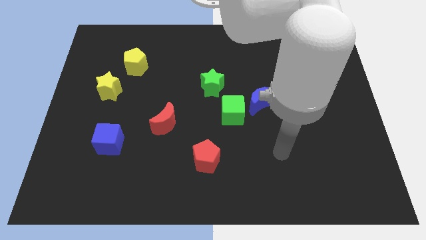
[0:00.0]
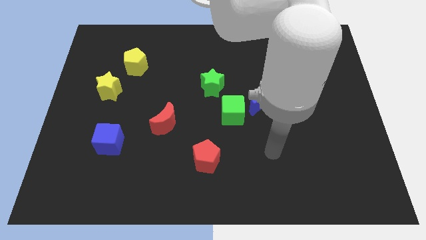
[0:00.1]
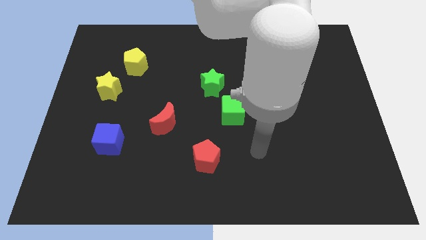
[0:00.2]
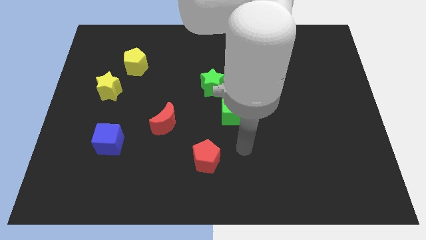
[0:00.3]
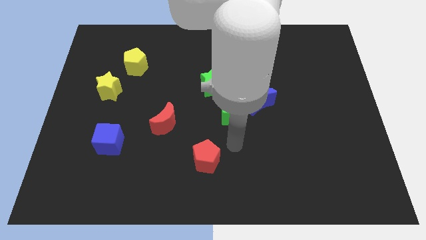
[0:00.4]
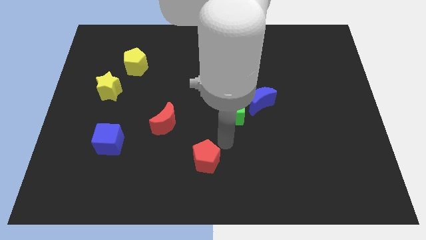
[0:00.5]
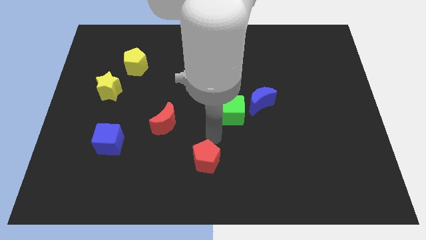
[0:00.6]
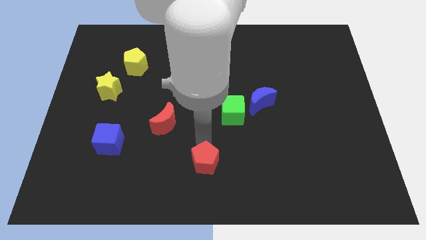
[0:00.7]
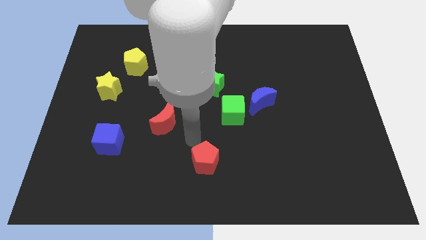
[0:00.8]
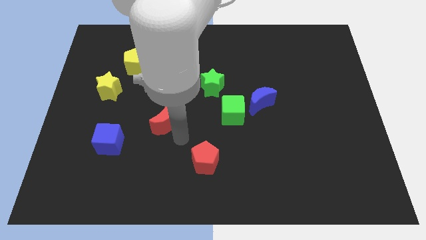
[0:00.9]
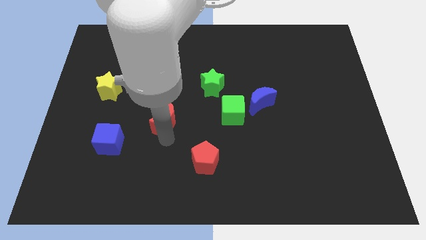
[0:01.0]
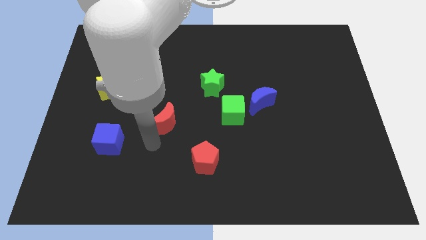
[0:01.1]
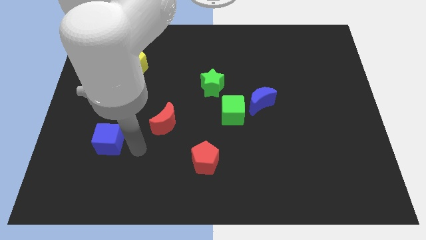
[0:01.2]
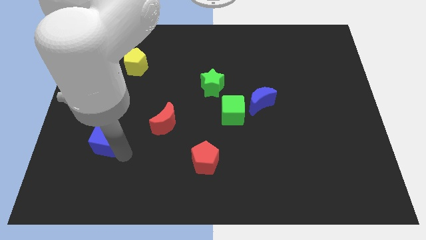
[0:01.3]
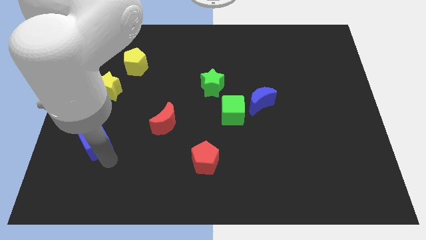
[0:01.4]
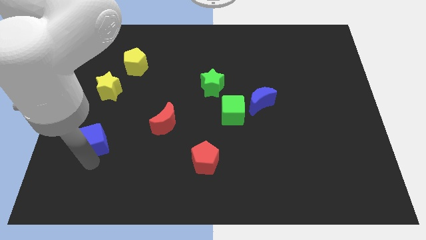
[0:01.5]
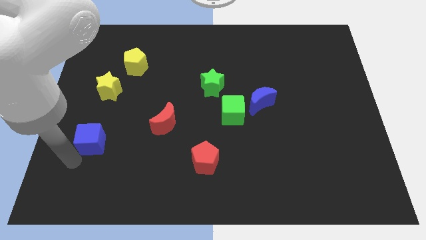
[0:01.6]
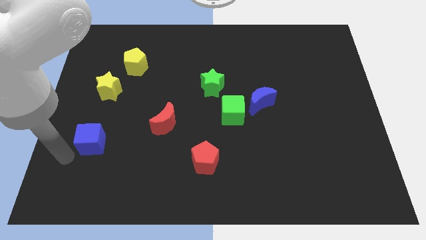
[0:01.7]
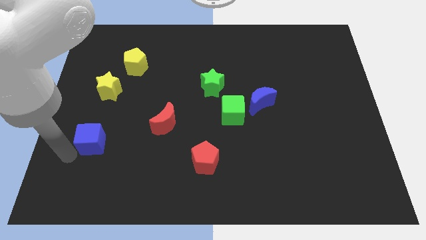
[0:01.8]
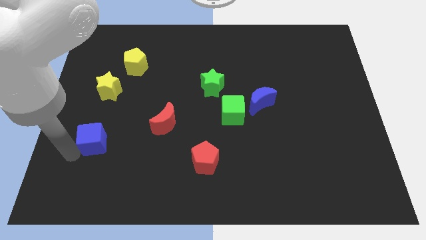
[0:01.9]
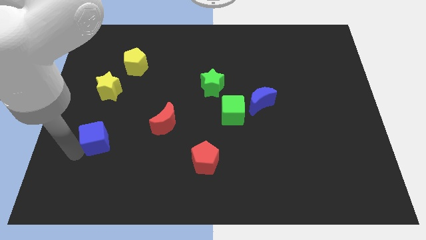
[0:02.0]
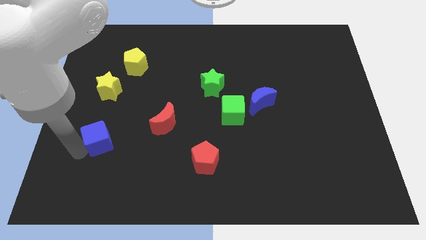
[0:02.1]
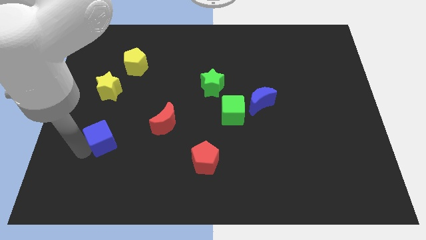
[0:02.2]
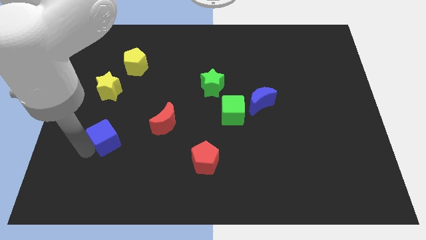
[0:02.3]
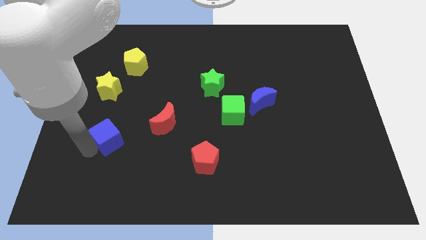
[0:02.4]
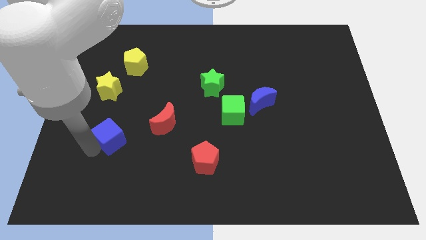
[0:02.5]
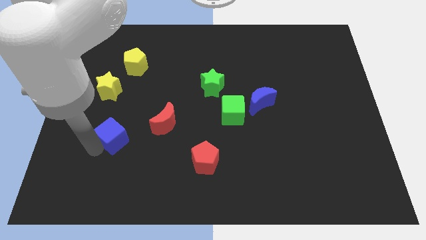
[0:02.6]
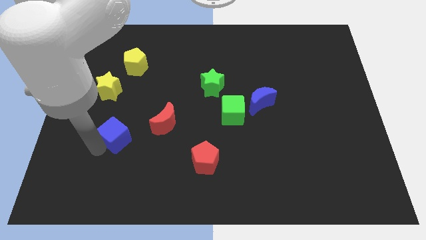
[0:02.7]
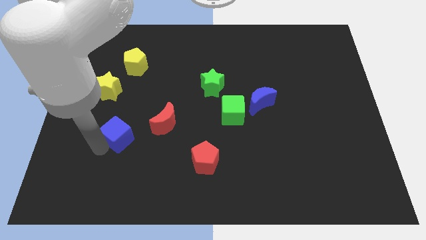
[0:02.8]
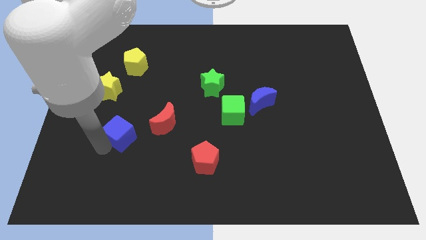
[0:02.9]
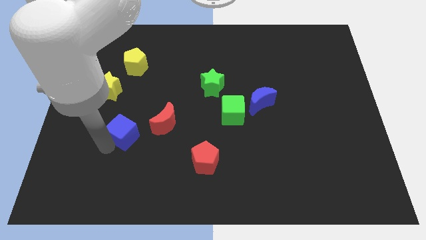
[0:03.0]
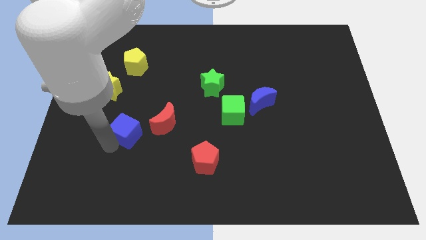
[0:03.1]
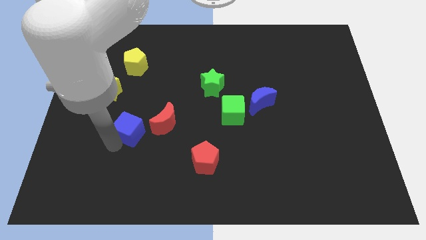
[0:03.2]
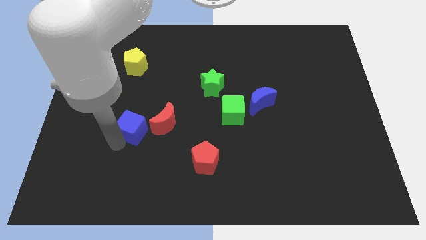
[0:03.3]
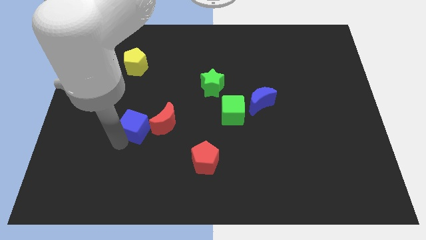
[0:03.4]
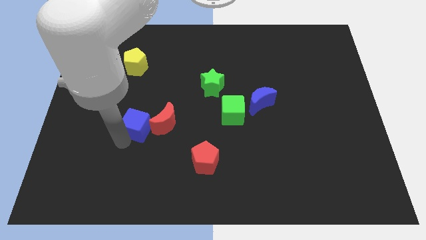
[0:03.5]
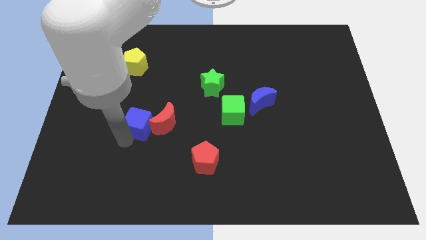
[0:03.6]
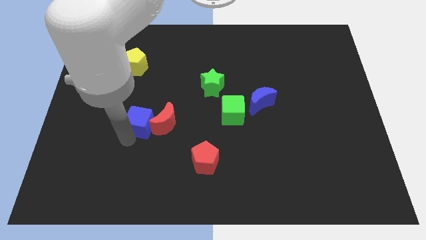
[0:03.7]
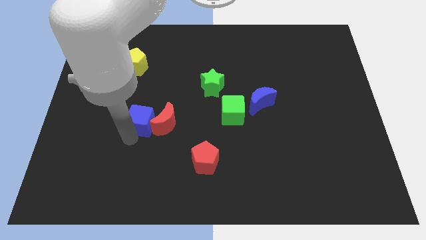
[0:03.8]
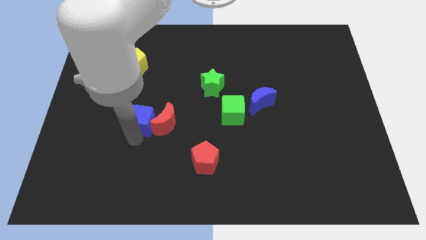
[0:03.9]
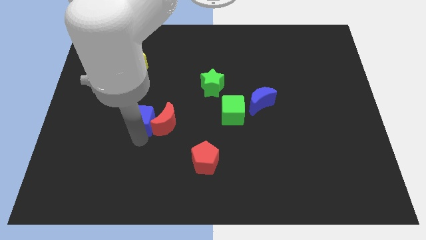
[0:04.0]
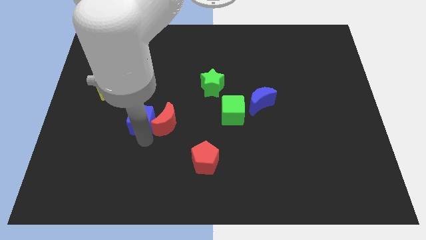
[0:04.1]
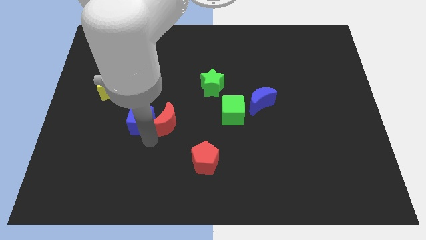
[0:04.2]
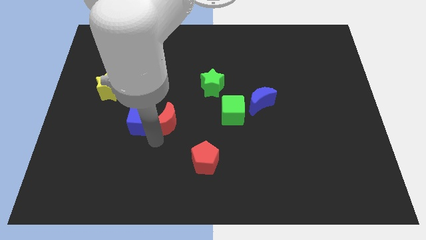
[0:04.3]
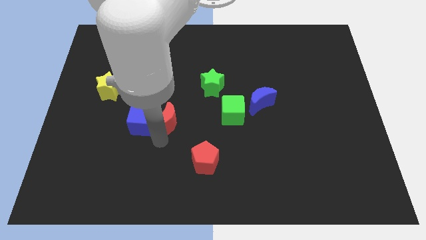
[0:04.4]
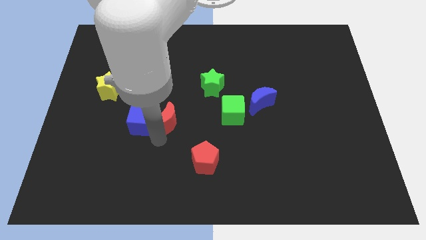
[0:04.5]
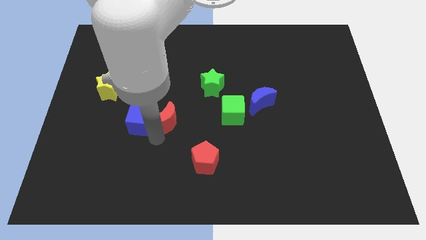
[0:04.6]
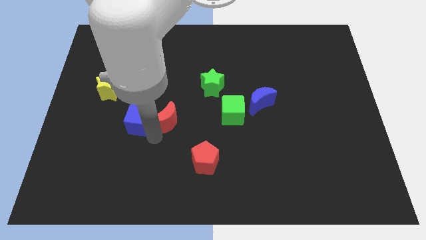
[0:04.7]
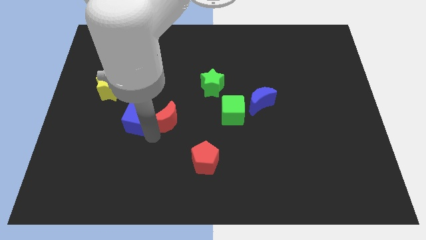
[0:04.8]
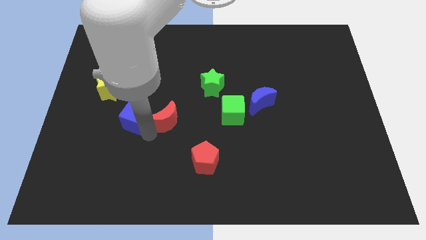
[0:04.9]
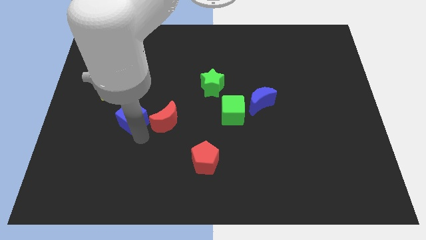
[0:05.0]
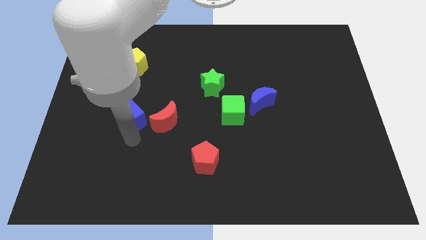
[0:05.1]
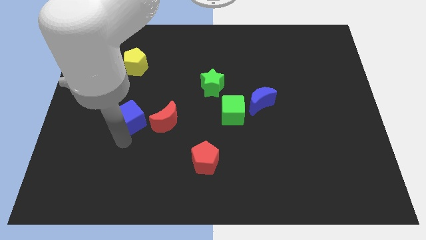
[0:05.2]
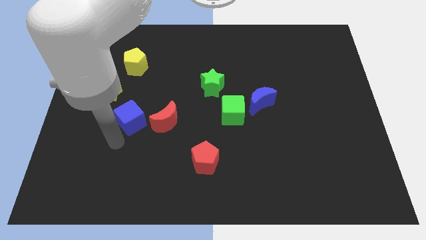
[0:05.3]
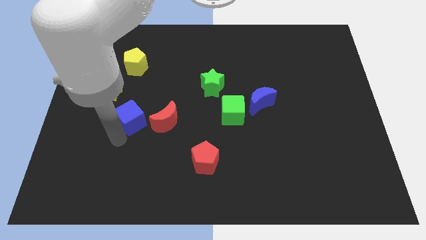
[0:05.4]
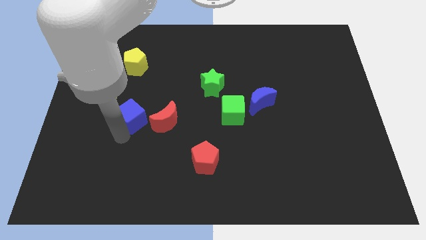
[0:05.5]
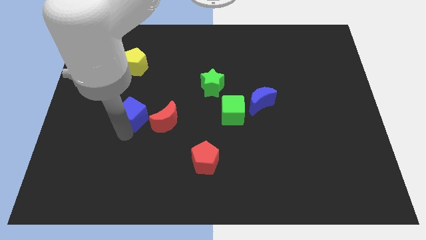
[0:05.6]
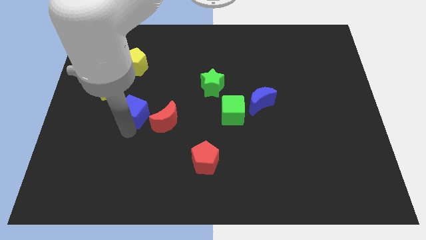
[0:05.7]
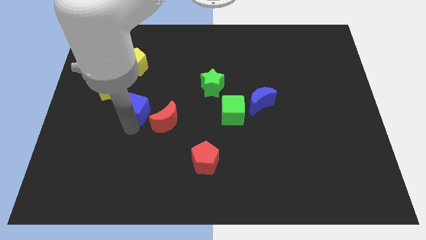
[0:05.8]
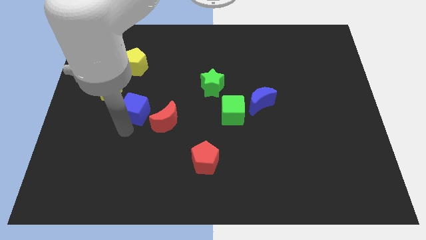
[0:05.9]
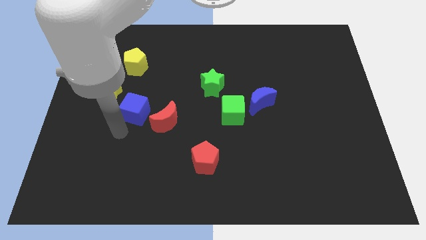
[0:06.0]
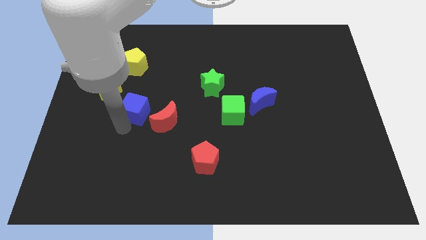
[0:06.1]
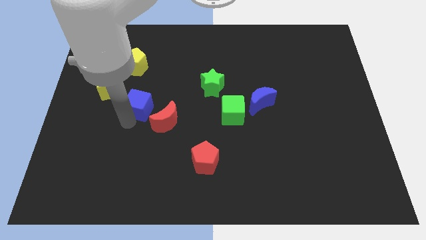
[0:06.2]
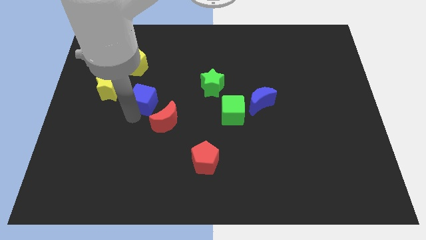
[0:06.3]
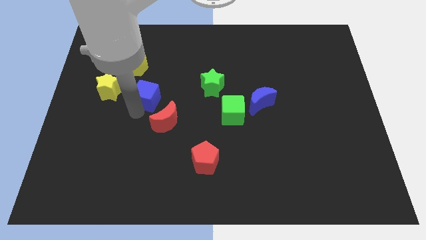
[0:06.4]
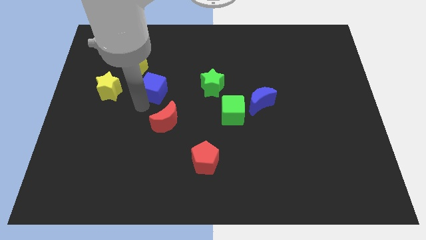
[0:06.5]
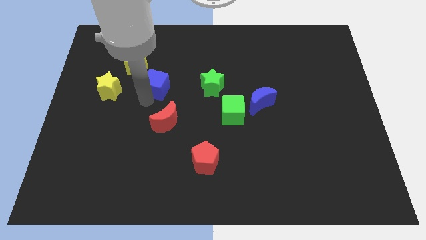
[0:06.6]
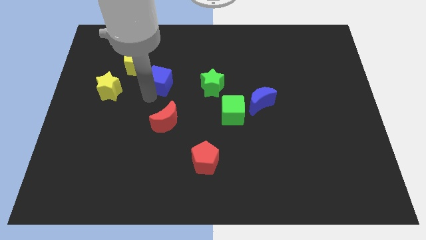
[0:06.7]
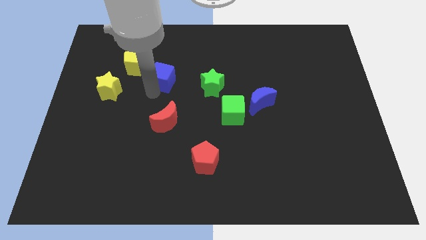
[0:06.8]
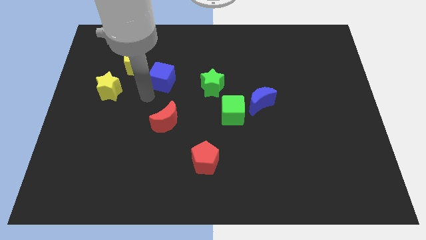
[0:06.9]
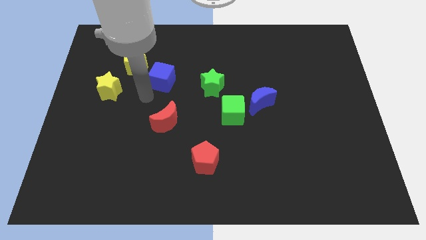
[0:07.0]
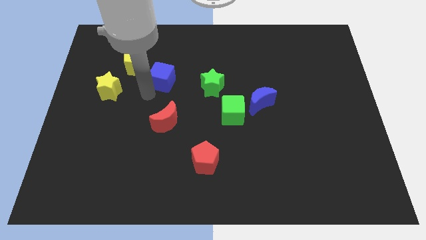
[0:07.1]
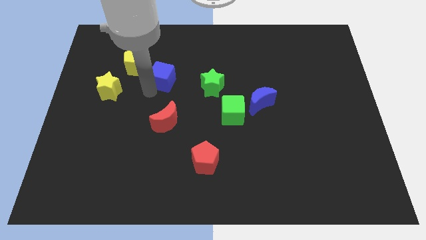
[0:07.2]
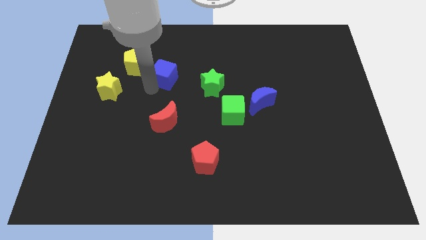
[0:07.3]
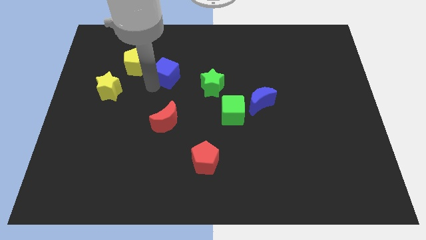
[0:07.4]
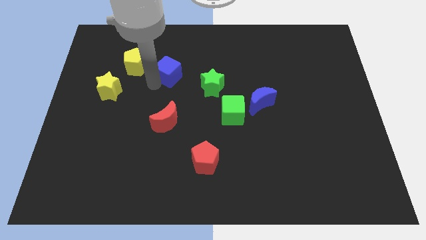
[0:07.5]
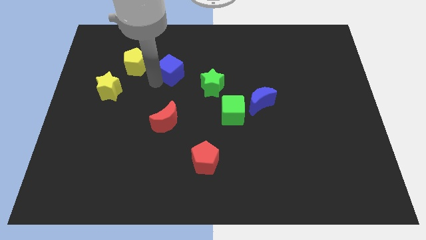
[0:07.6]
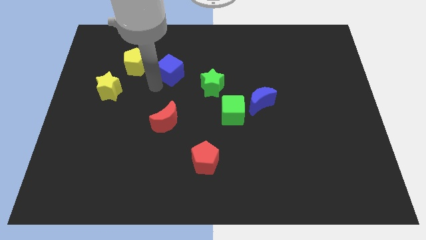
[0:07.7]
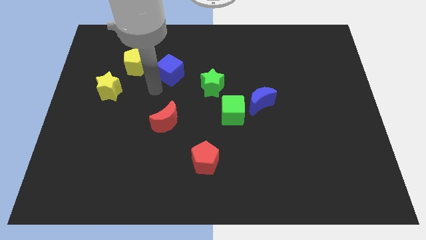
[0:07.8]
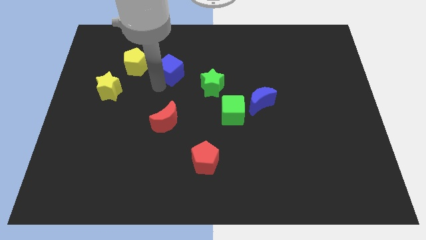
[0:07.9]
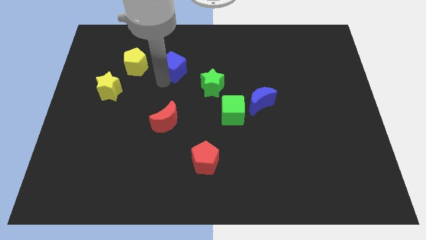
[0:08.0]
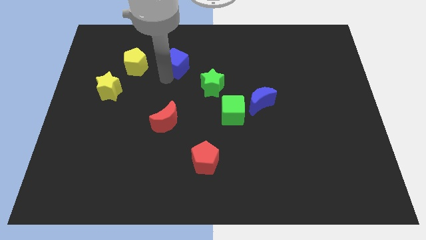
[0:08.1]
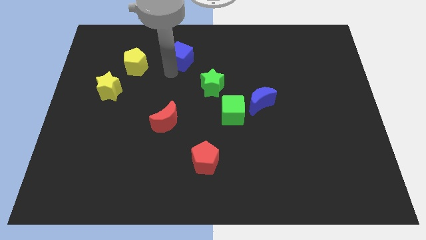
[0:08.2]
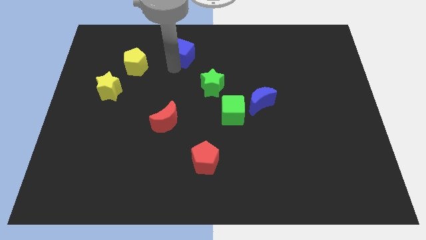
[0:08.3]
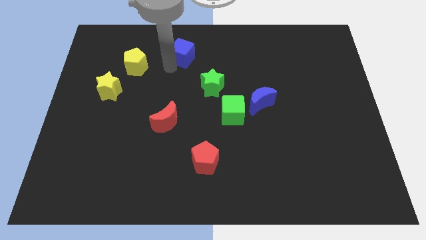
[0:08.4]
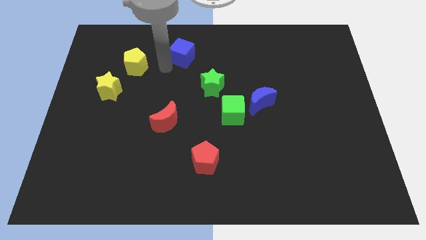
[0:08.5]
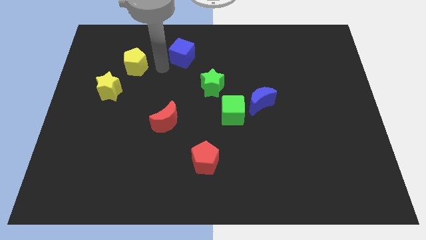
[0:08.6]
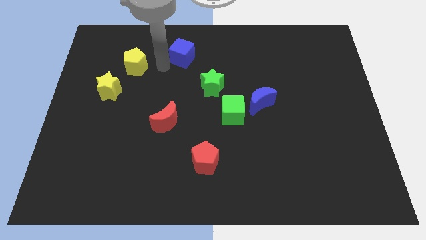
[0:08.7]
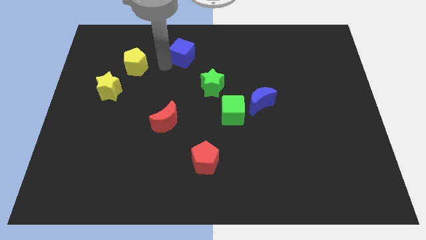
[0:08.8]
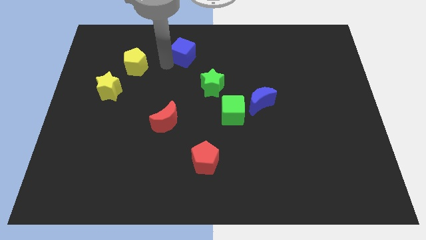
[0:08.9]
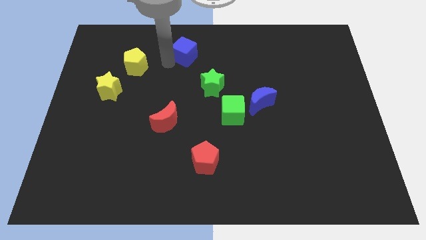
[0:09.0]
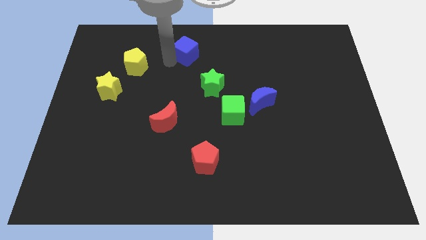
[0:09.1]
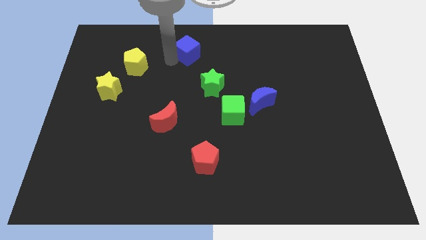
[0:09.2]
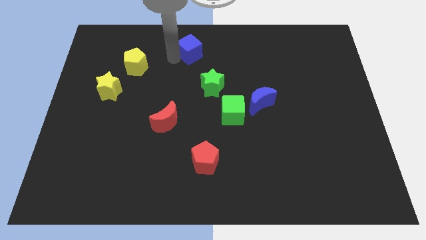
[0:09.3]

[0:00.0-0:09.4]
slide the blue cube to the top
